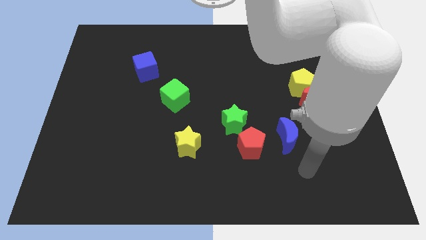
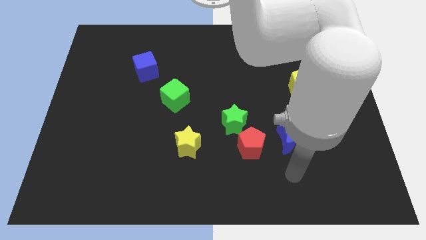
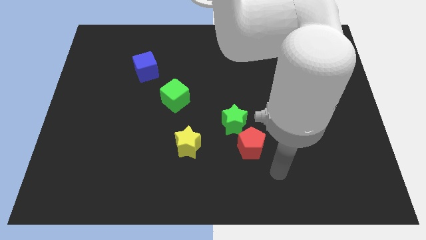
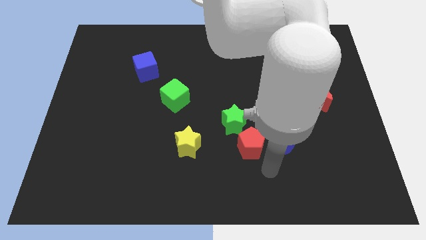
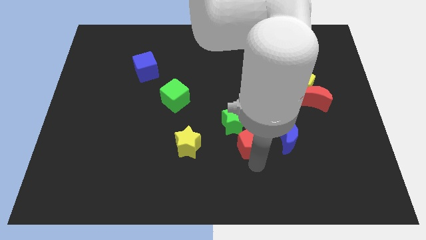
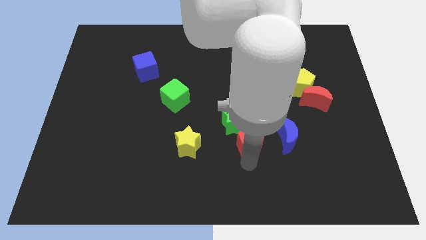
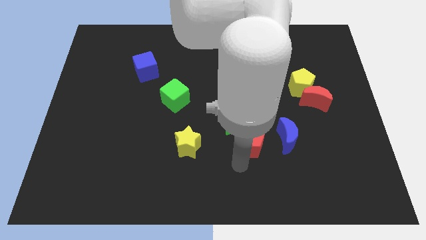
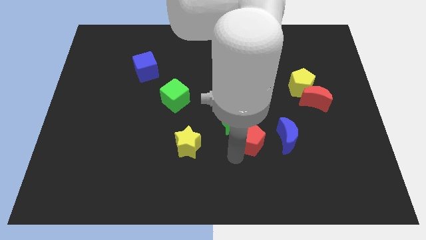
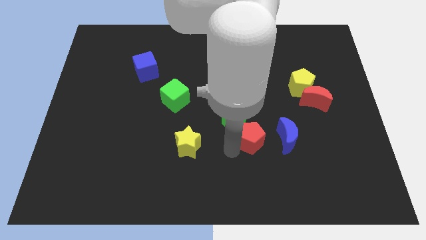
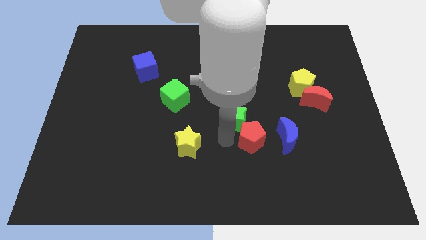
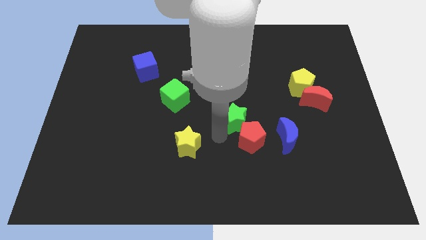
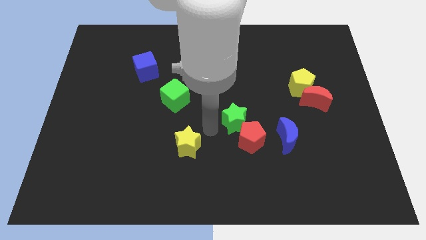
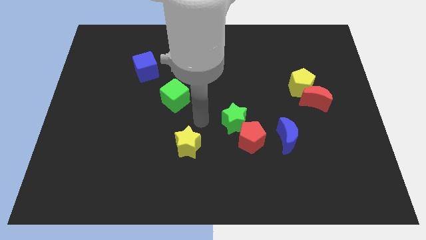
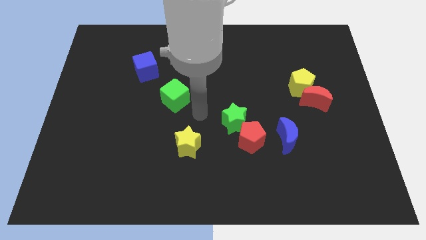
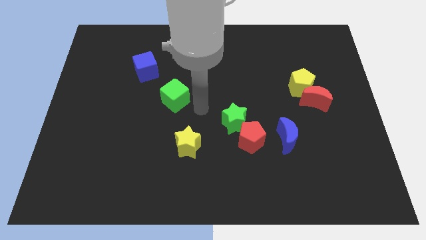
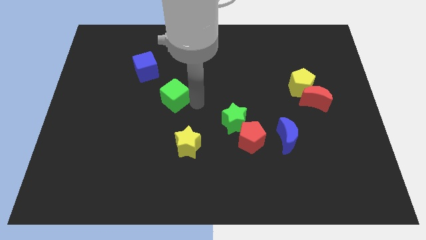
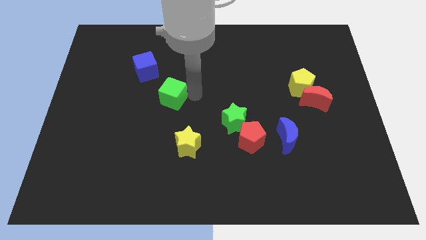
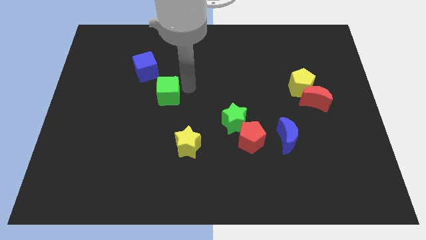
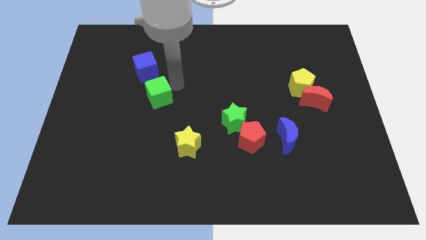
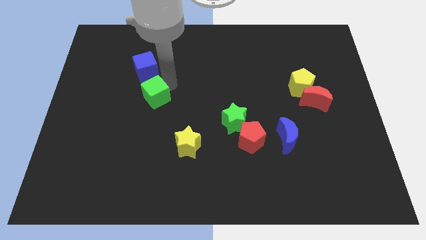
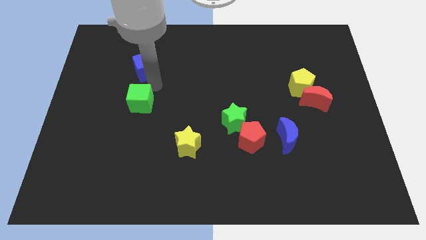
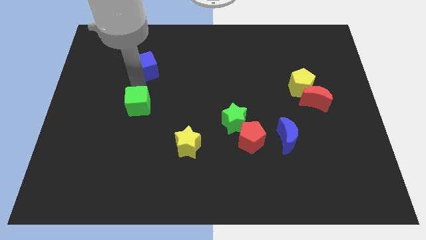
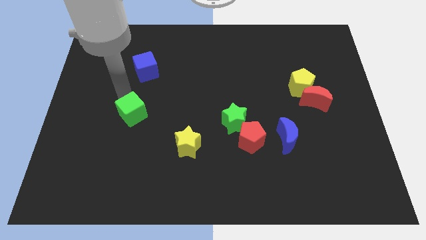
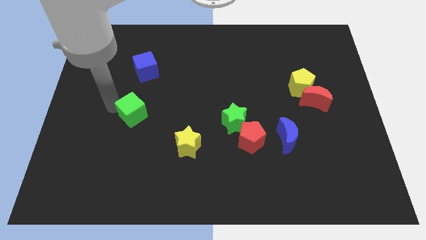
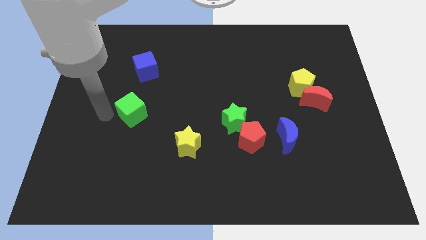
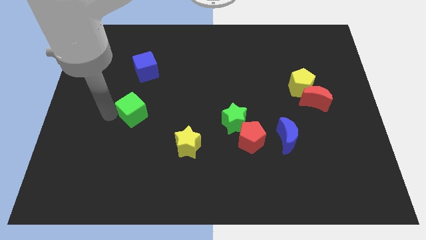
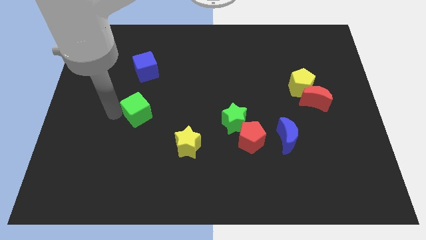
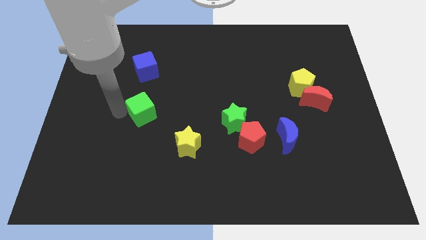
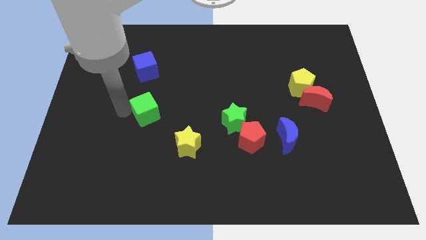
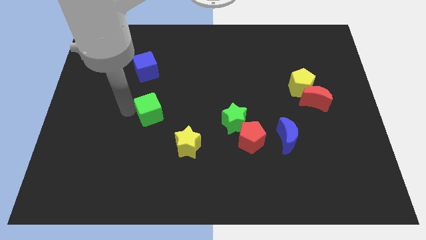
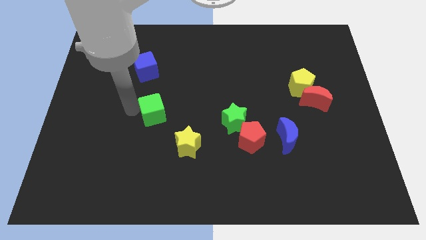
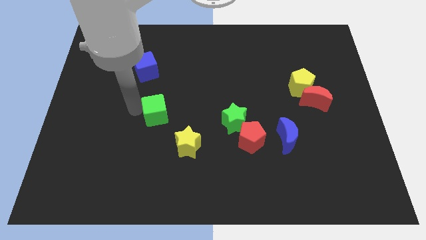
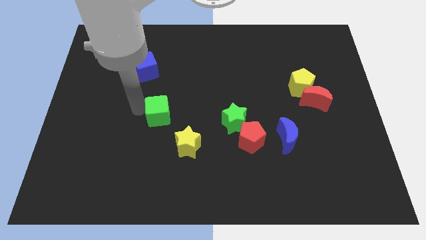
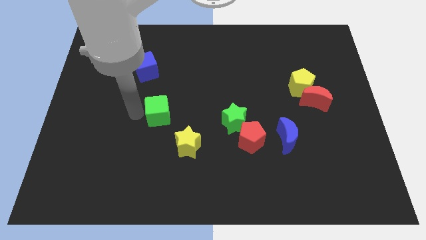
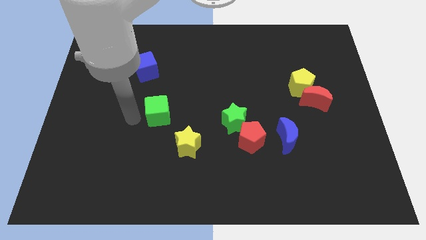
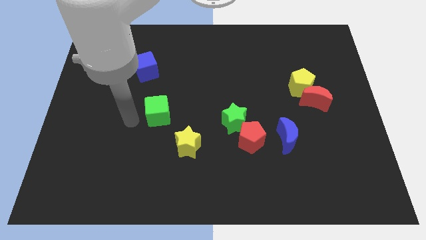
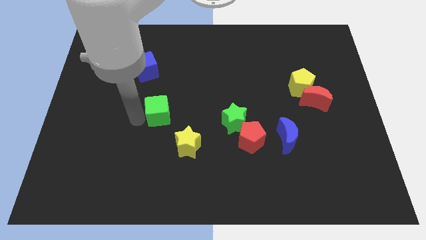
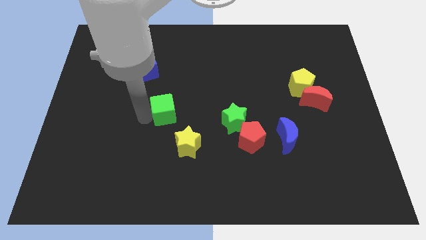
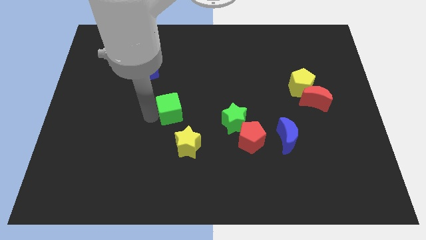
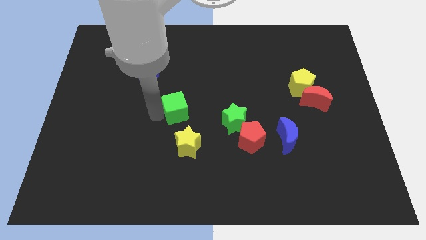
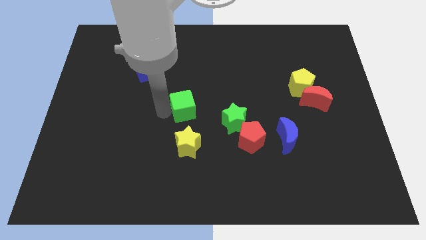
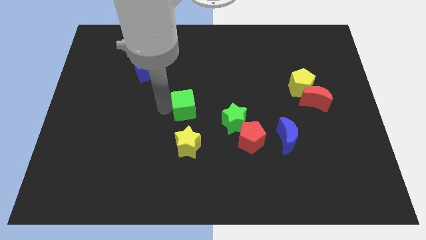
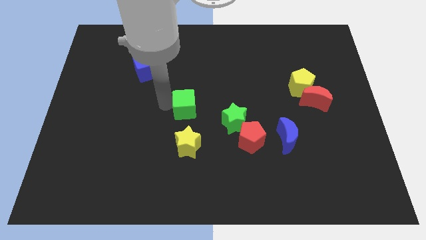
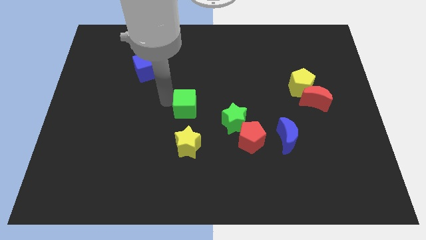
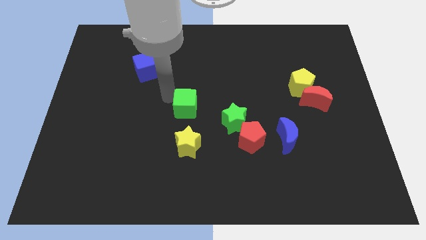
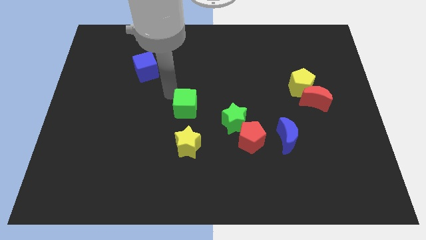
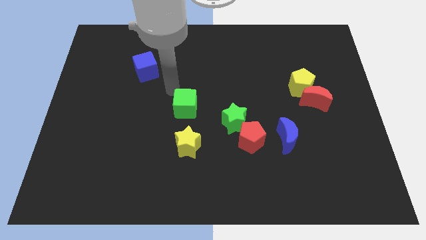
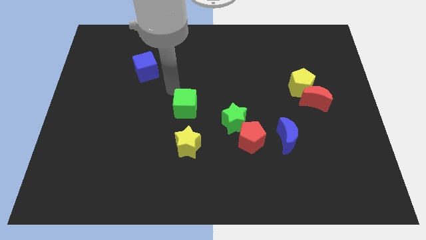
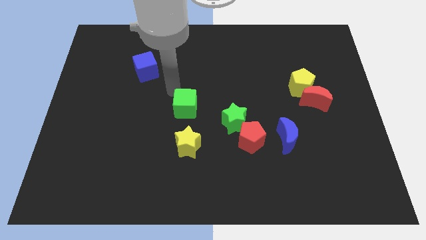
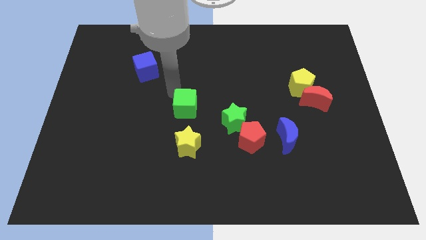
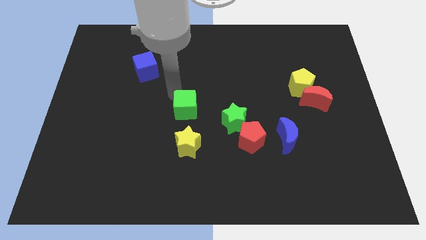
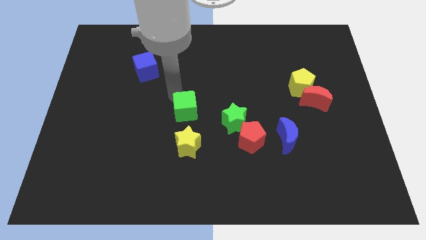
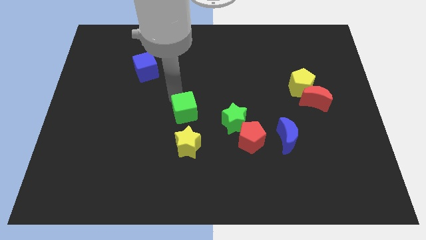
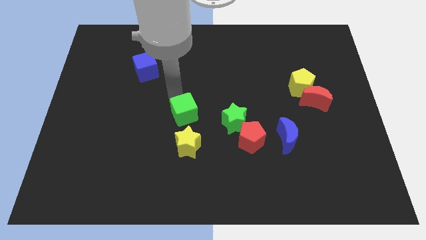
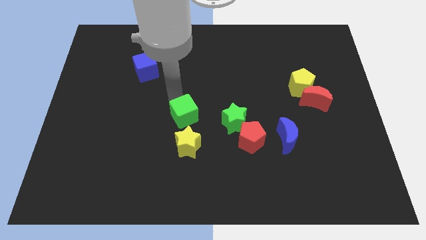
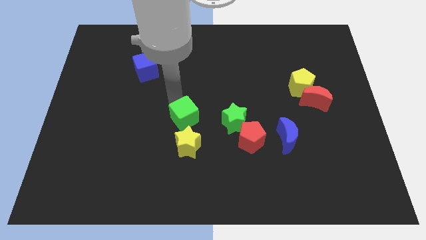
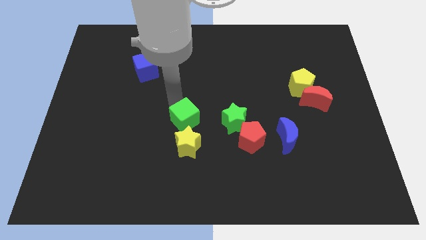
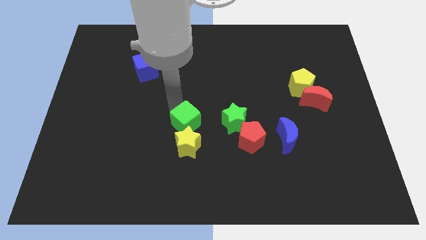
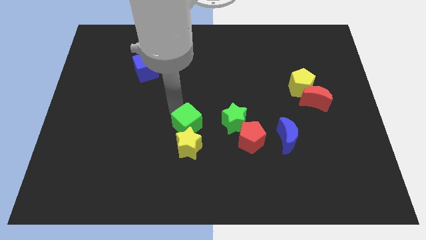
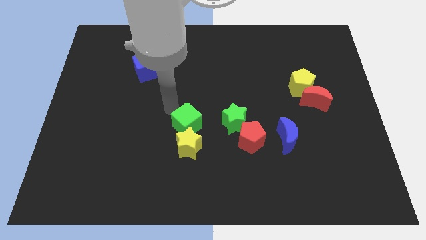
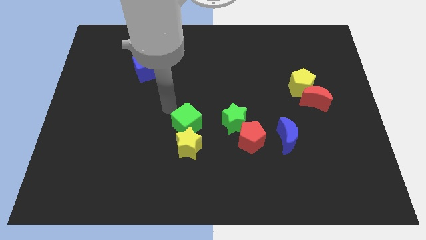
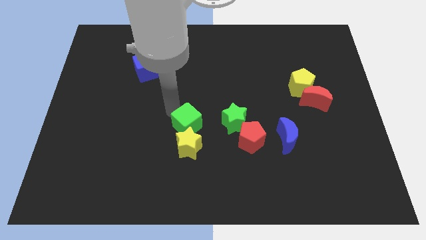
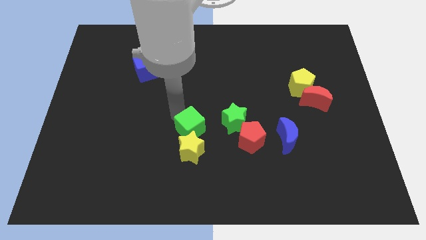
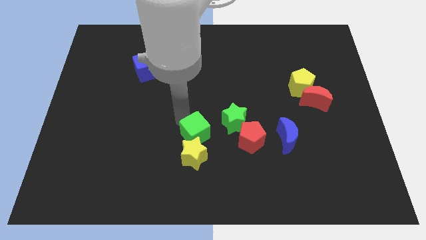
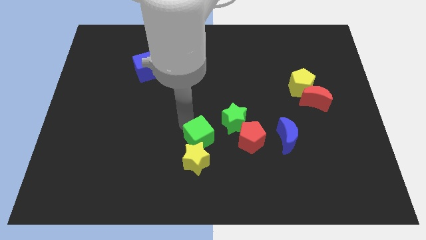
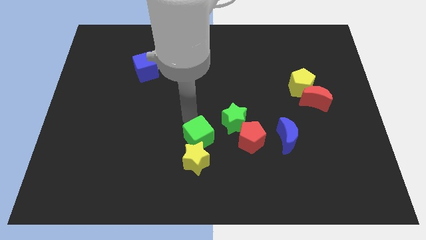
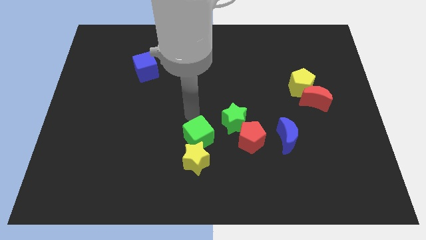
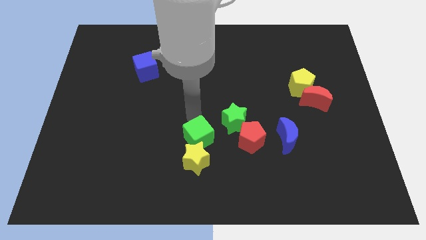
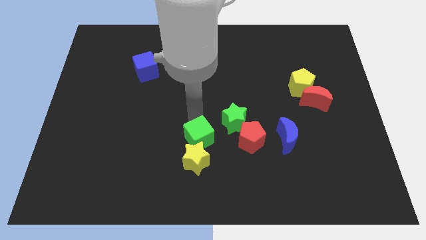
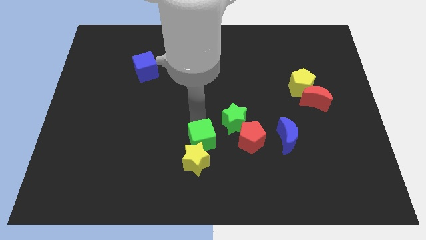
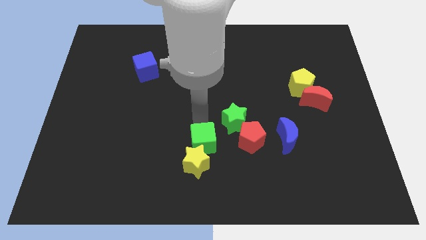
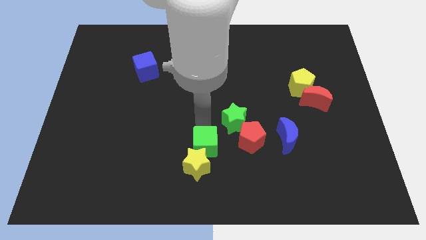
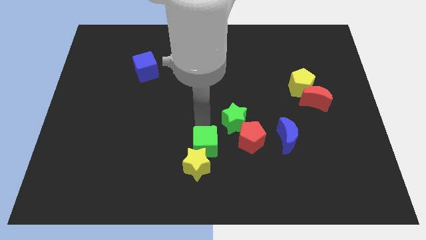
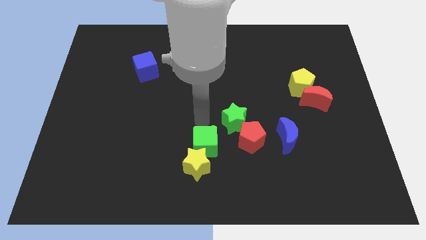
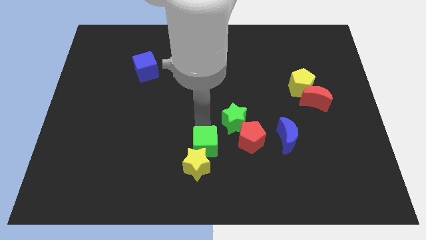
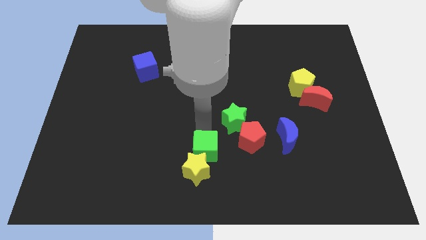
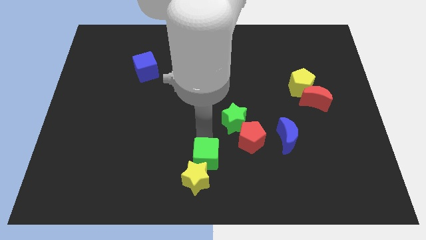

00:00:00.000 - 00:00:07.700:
push the green cube to the bottom side
